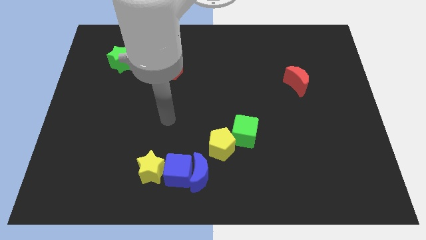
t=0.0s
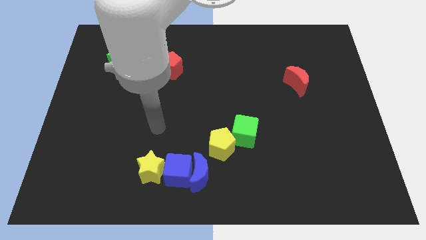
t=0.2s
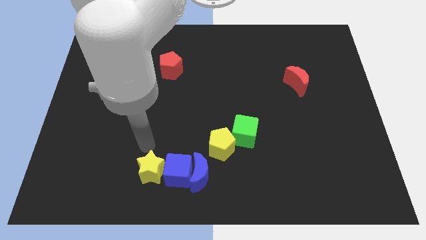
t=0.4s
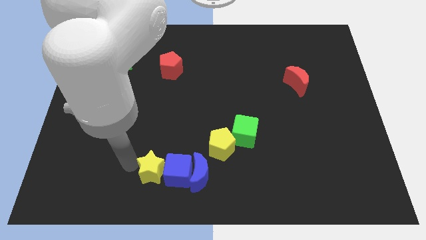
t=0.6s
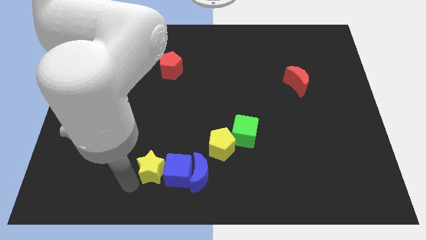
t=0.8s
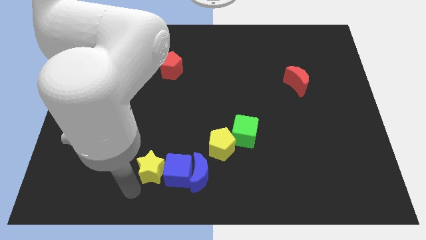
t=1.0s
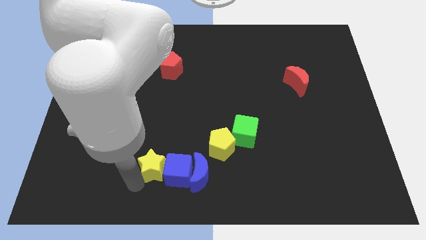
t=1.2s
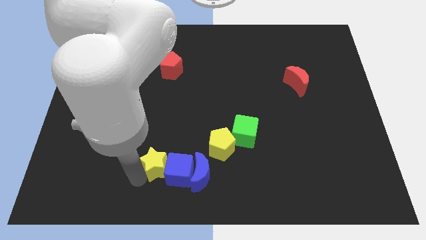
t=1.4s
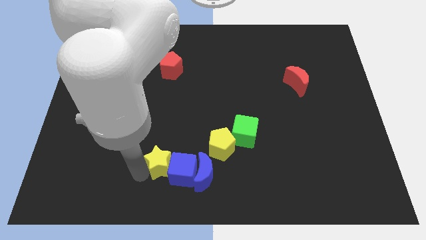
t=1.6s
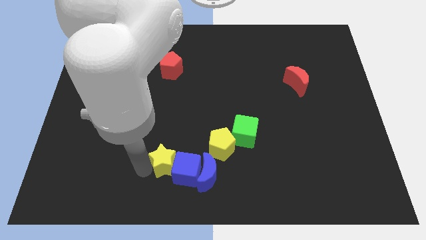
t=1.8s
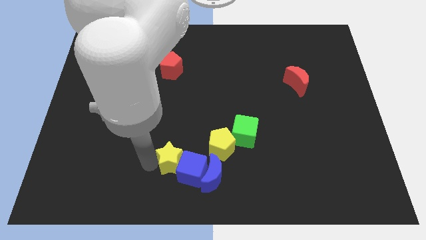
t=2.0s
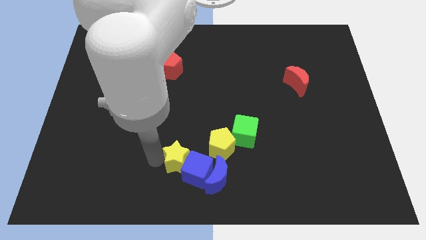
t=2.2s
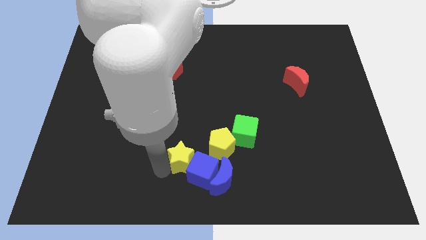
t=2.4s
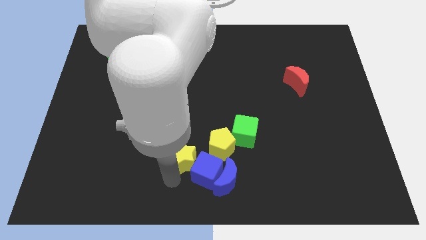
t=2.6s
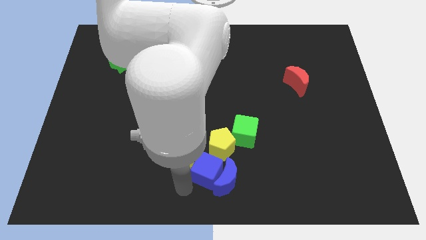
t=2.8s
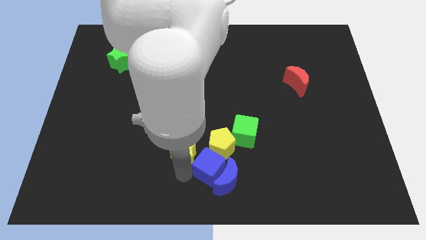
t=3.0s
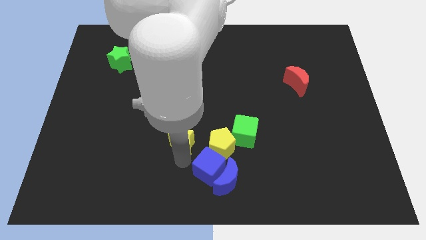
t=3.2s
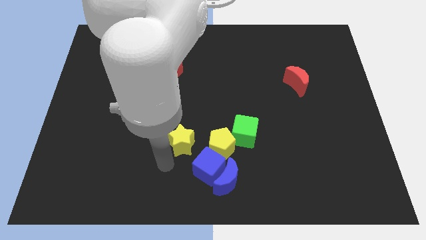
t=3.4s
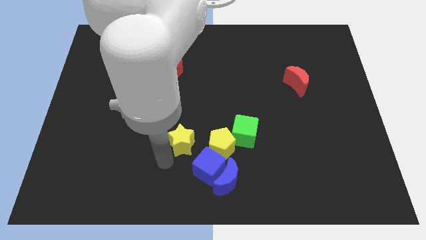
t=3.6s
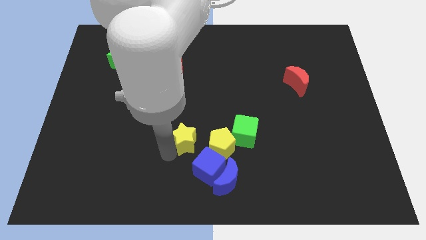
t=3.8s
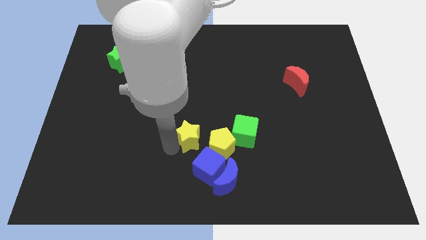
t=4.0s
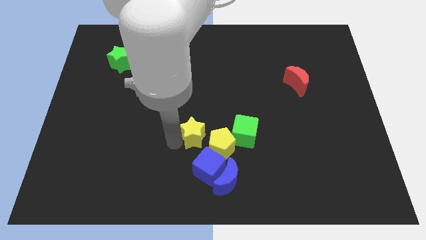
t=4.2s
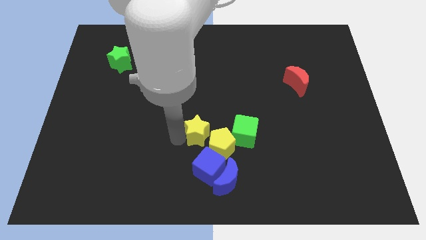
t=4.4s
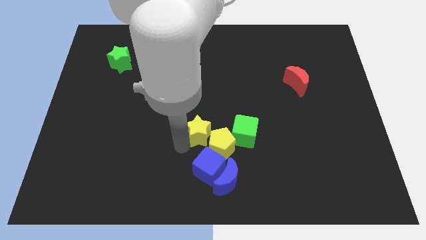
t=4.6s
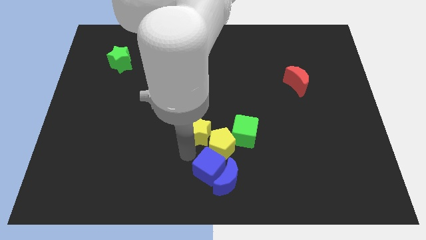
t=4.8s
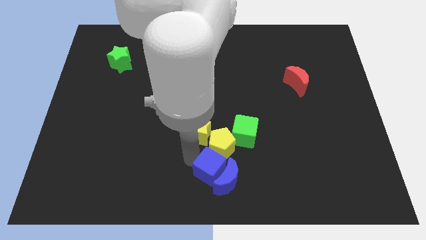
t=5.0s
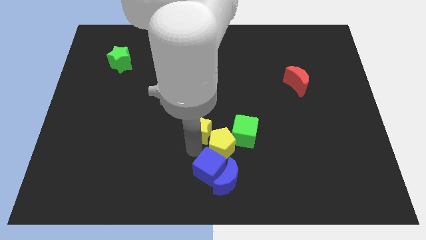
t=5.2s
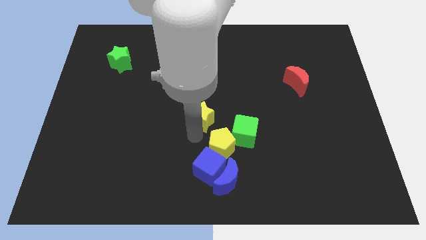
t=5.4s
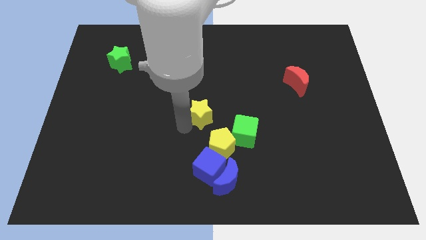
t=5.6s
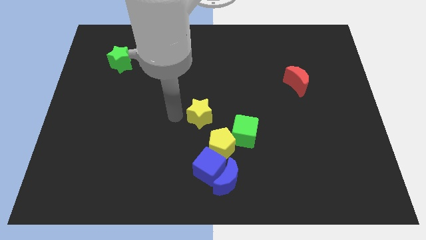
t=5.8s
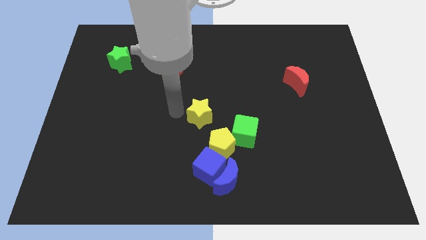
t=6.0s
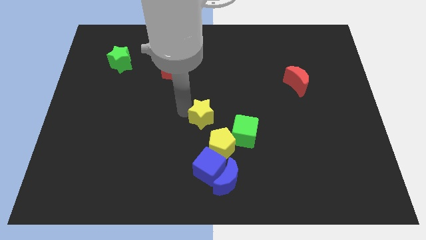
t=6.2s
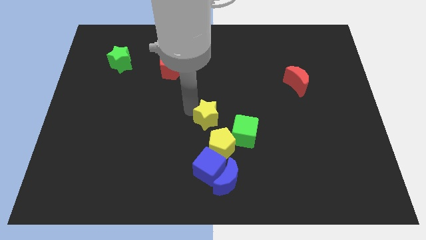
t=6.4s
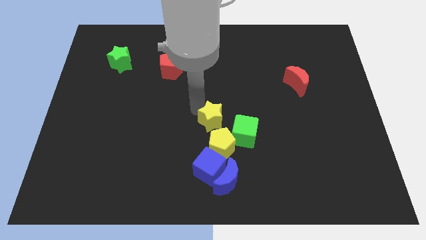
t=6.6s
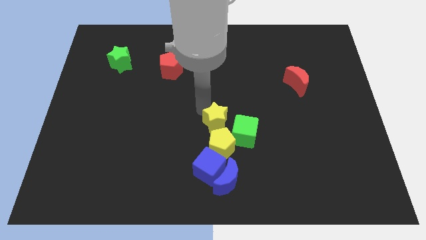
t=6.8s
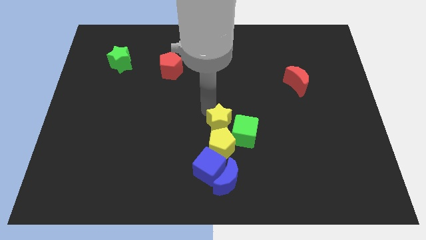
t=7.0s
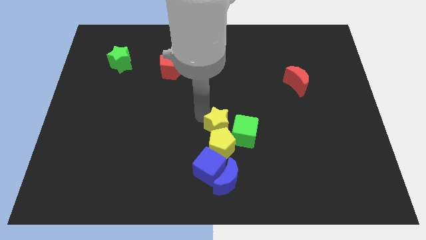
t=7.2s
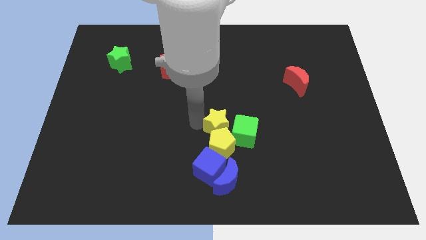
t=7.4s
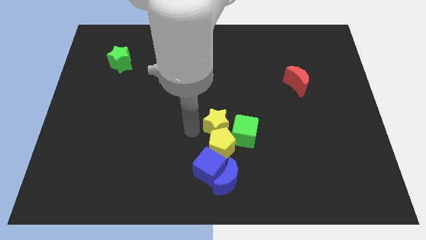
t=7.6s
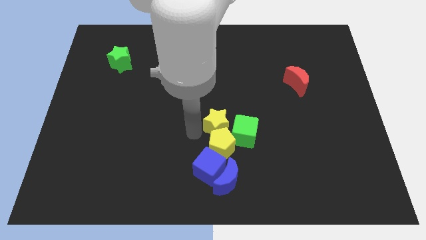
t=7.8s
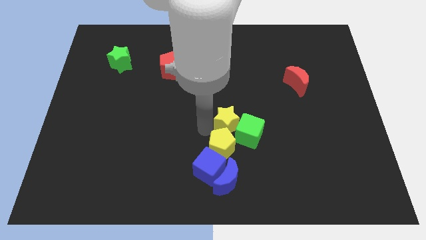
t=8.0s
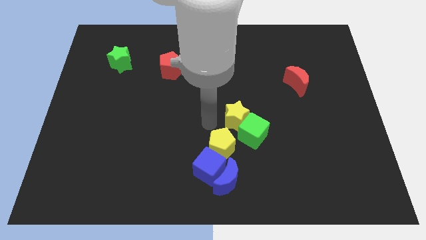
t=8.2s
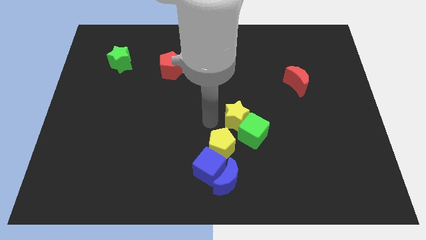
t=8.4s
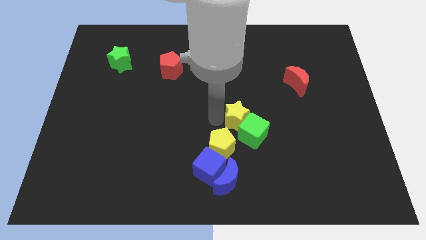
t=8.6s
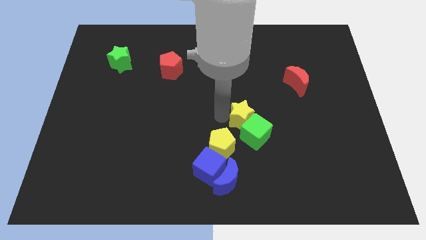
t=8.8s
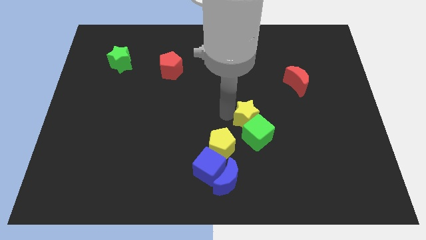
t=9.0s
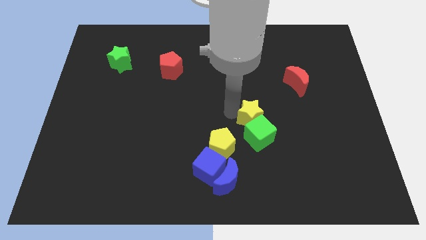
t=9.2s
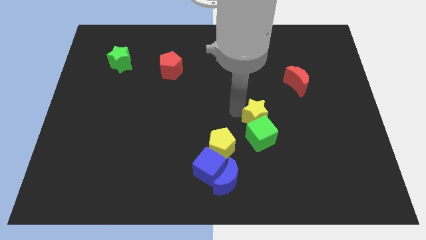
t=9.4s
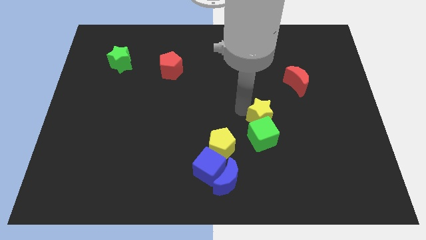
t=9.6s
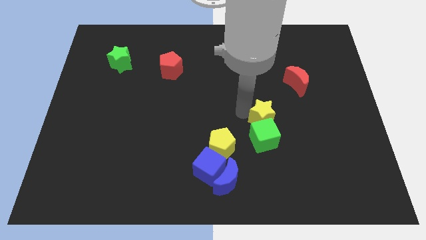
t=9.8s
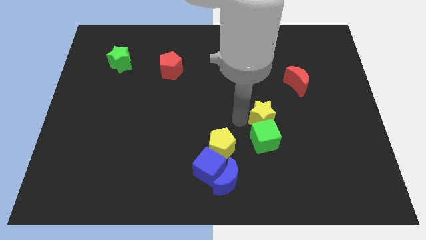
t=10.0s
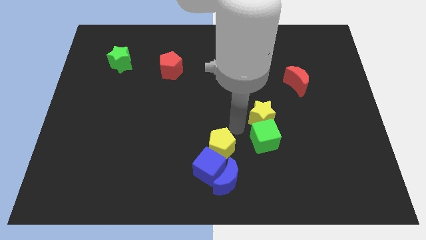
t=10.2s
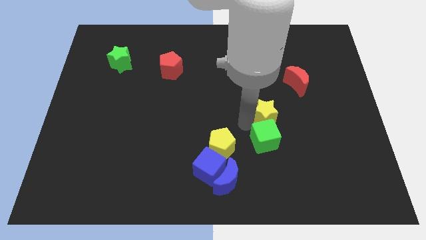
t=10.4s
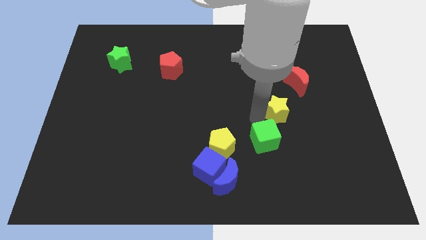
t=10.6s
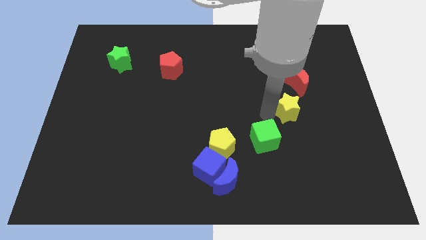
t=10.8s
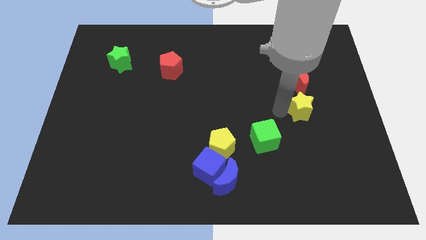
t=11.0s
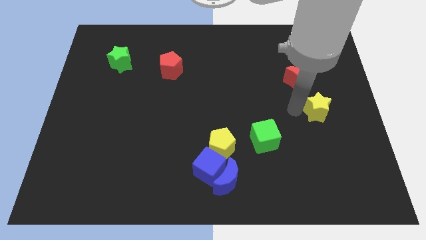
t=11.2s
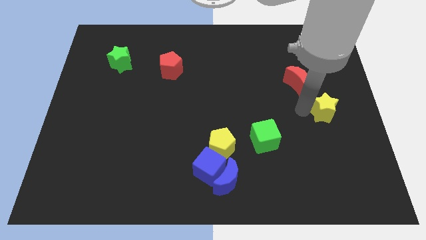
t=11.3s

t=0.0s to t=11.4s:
put the yellow star to the center right

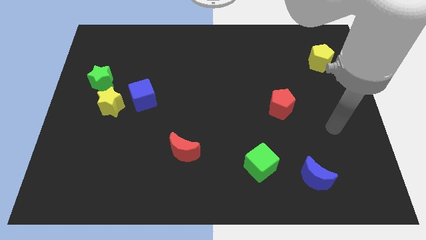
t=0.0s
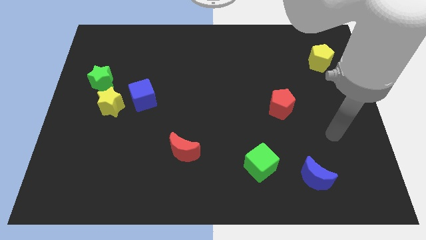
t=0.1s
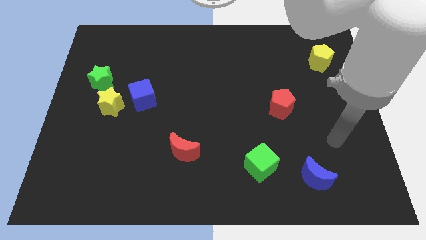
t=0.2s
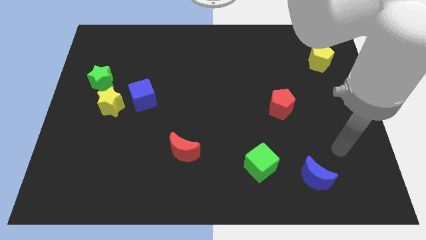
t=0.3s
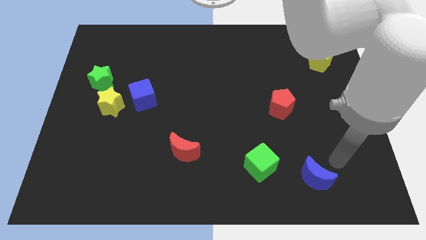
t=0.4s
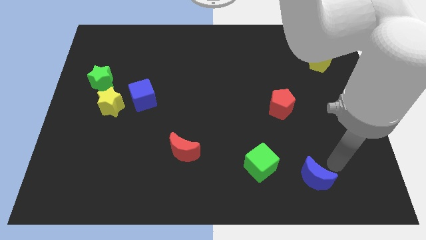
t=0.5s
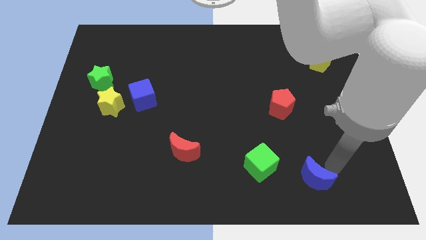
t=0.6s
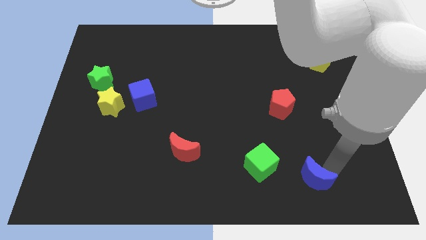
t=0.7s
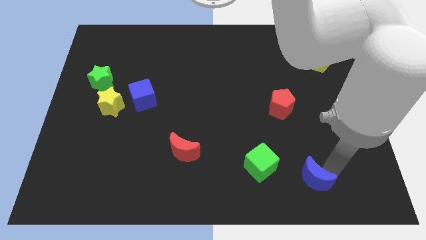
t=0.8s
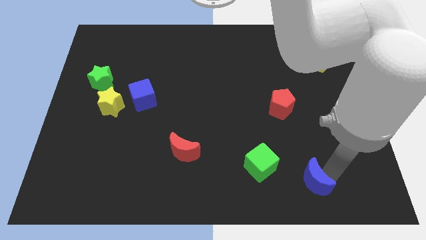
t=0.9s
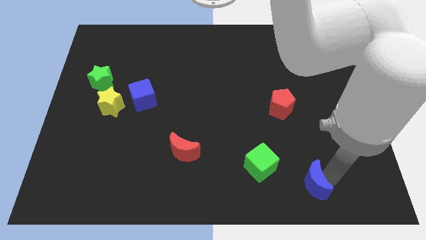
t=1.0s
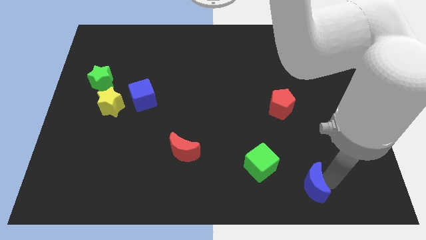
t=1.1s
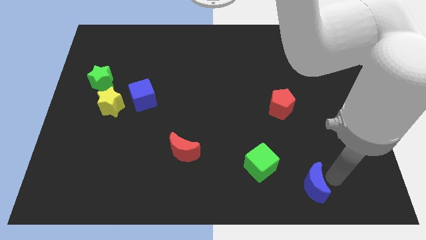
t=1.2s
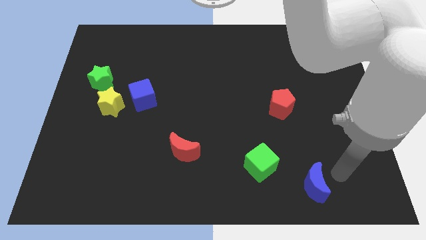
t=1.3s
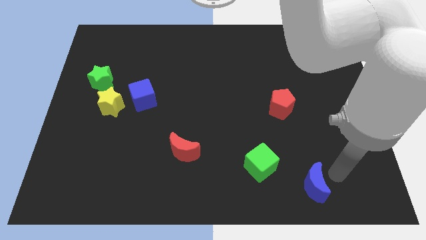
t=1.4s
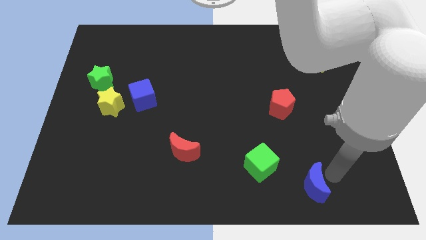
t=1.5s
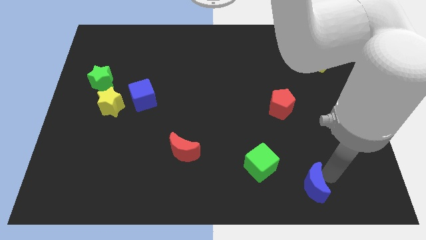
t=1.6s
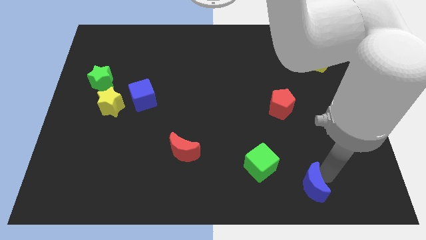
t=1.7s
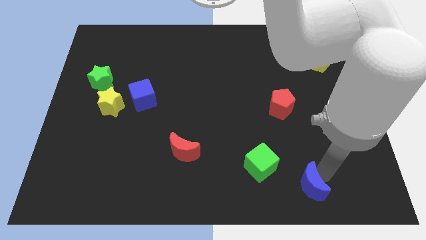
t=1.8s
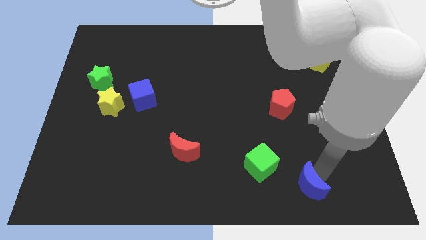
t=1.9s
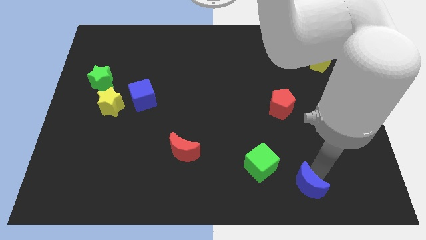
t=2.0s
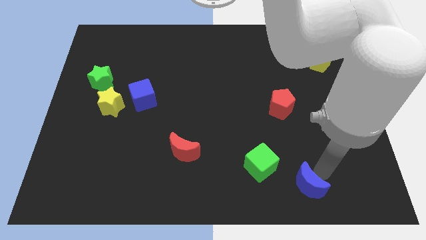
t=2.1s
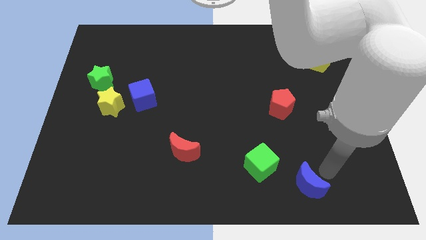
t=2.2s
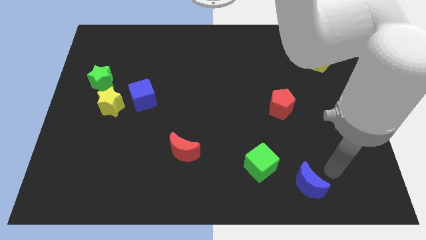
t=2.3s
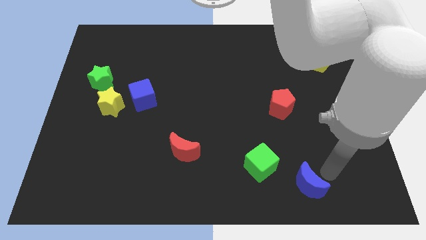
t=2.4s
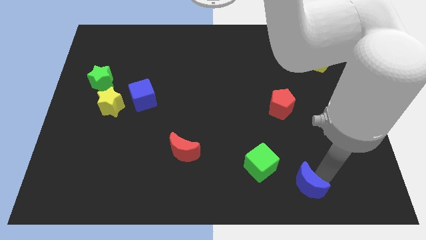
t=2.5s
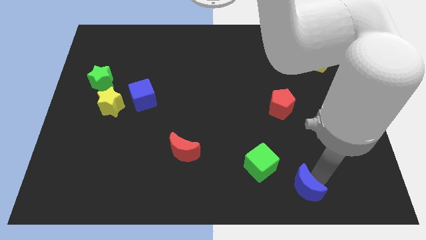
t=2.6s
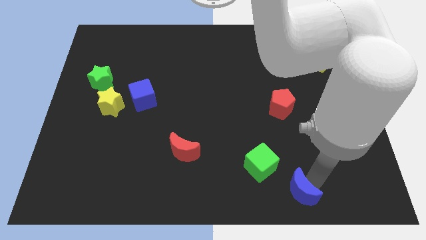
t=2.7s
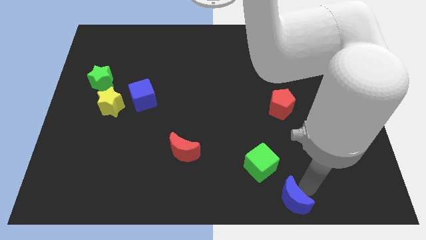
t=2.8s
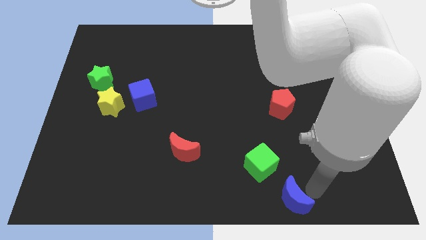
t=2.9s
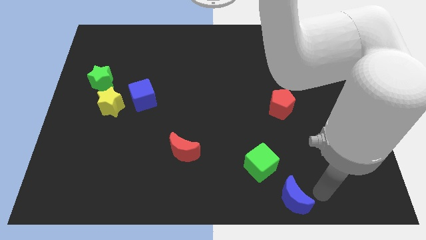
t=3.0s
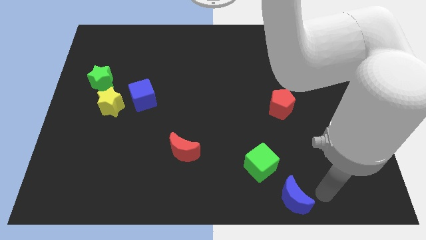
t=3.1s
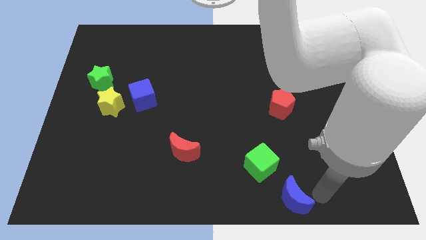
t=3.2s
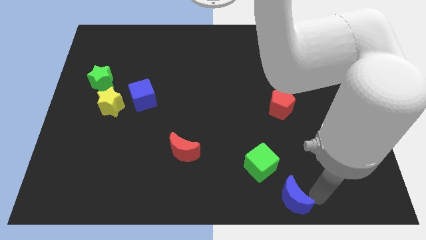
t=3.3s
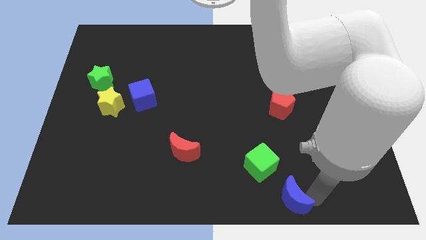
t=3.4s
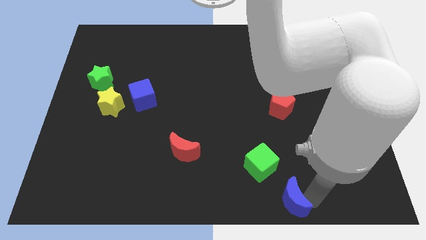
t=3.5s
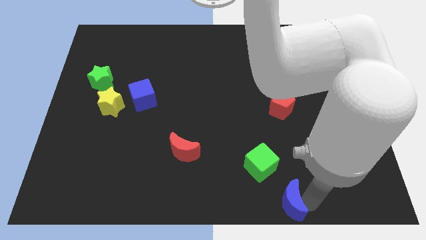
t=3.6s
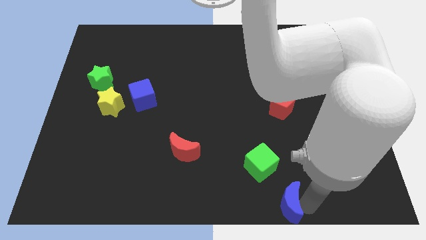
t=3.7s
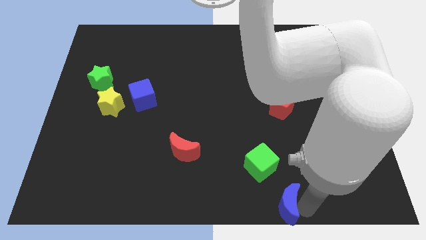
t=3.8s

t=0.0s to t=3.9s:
put the blue moon to the bottom
